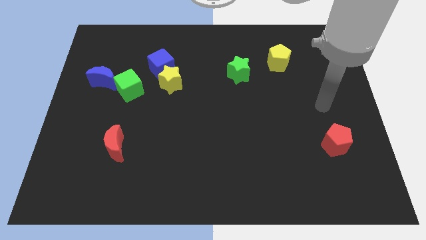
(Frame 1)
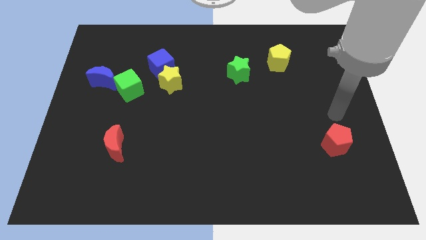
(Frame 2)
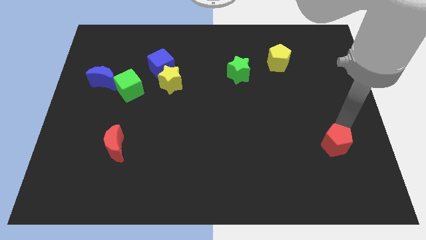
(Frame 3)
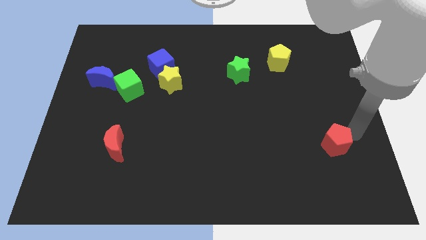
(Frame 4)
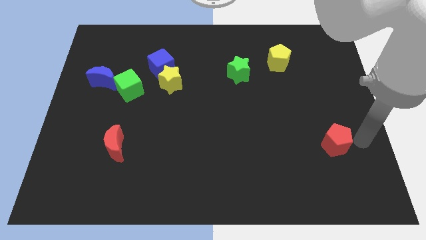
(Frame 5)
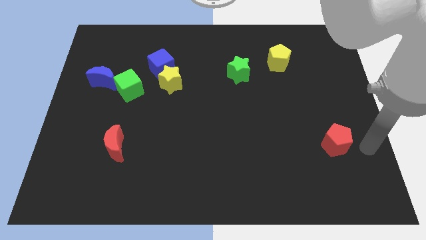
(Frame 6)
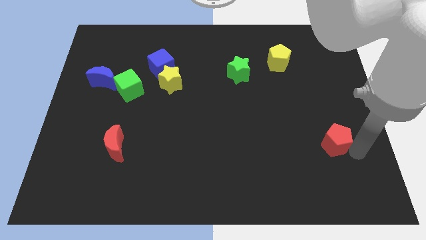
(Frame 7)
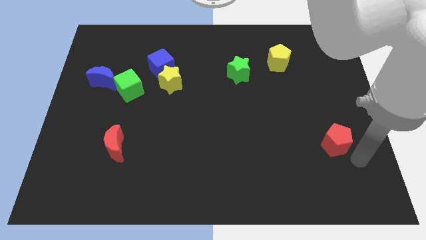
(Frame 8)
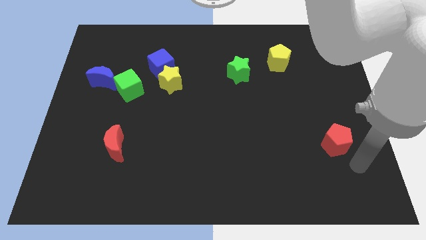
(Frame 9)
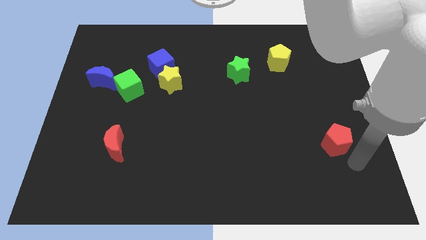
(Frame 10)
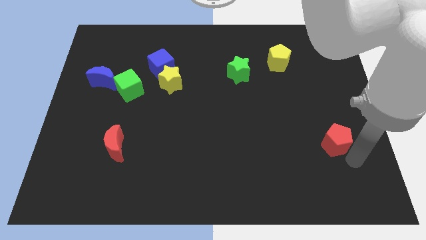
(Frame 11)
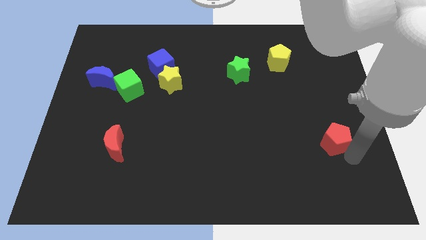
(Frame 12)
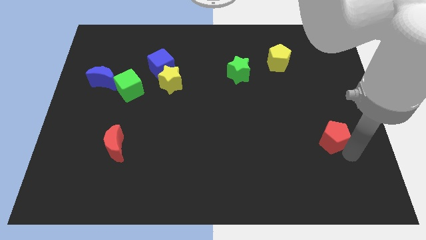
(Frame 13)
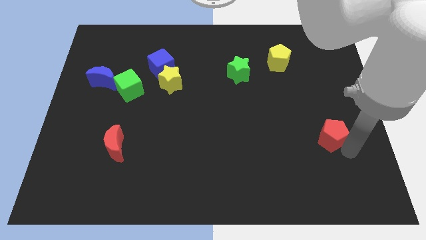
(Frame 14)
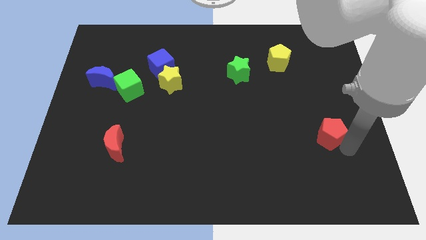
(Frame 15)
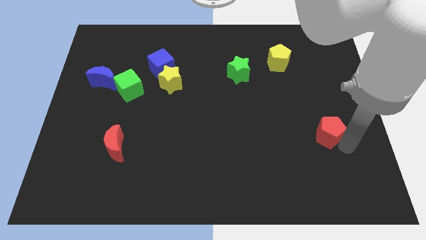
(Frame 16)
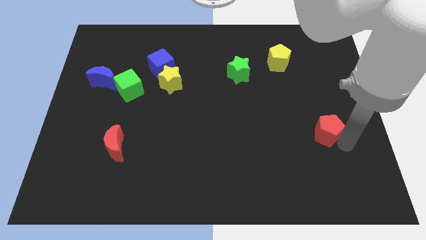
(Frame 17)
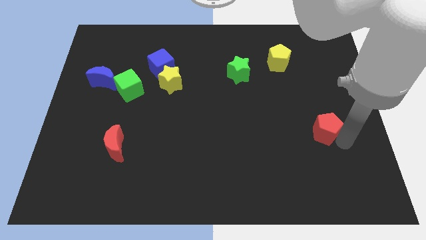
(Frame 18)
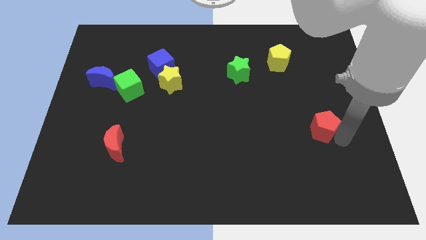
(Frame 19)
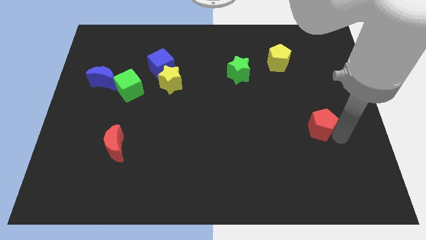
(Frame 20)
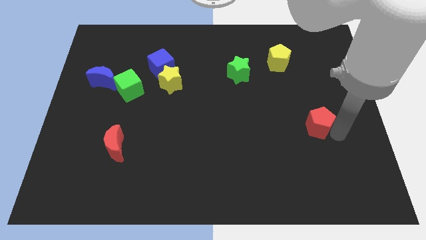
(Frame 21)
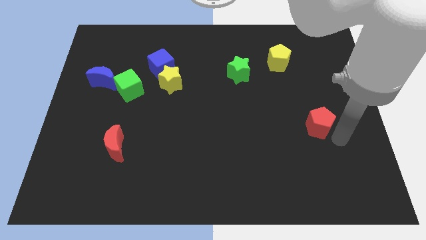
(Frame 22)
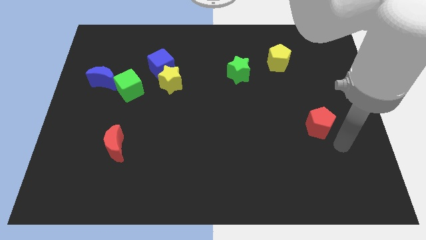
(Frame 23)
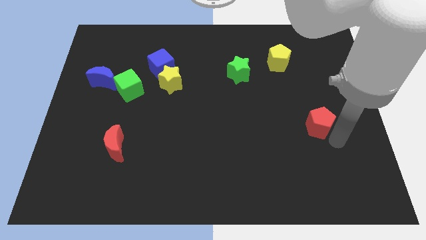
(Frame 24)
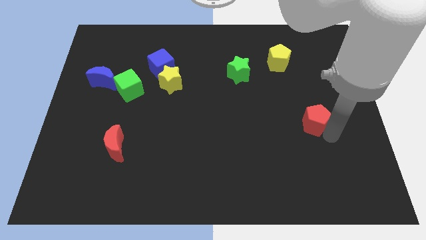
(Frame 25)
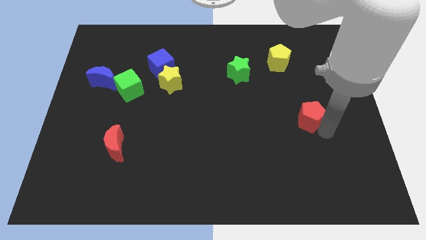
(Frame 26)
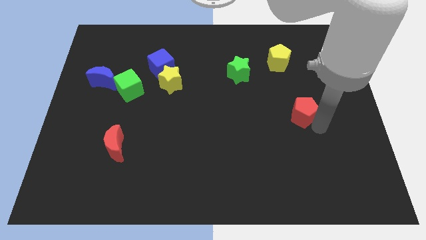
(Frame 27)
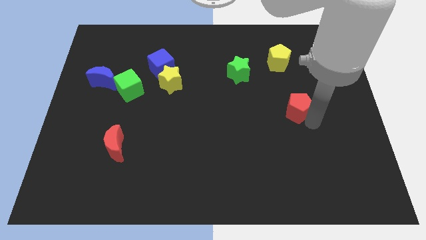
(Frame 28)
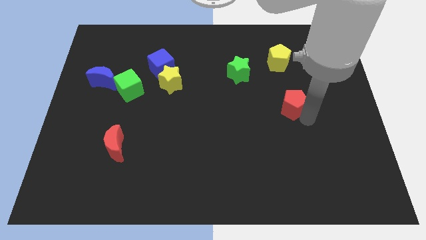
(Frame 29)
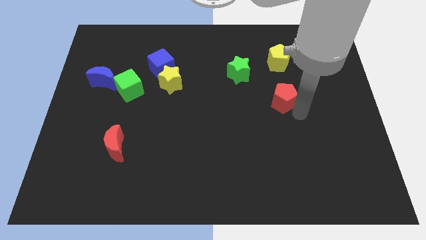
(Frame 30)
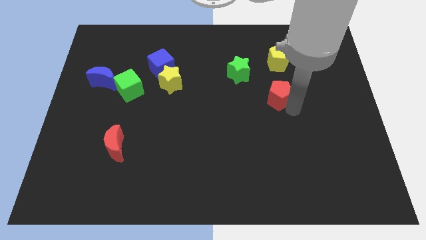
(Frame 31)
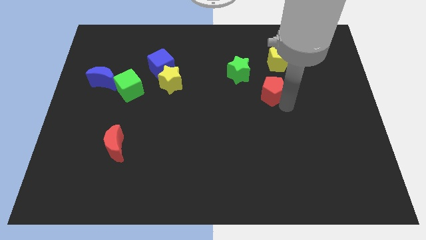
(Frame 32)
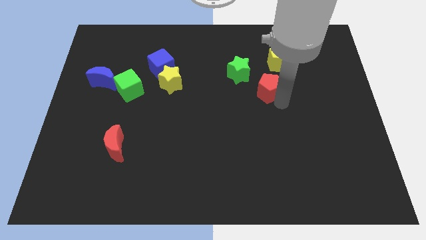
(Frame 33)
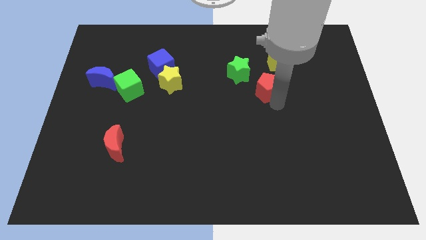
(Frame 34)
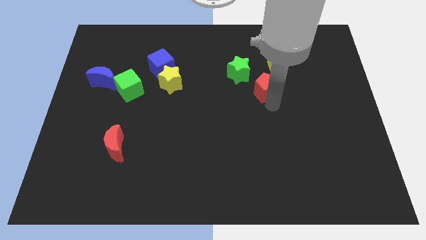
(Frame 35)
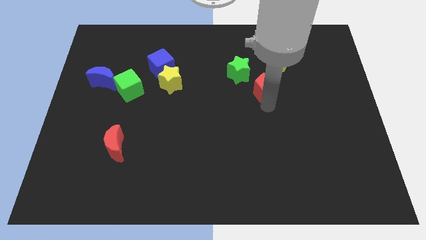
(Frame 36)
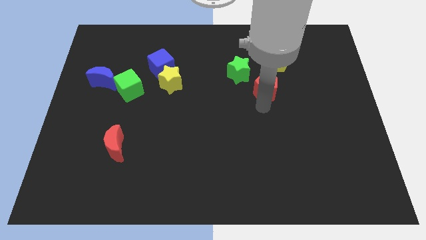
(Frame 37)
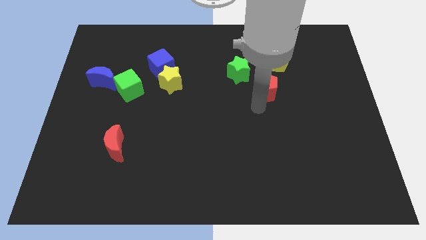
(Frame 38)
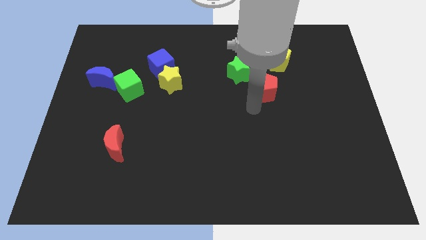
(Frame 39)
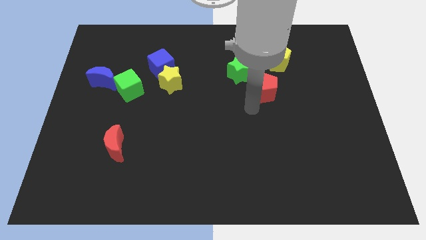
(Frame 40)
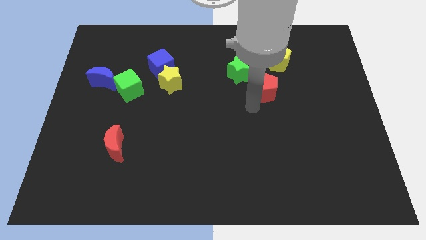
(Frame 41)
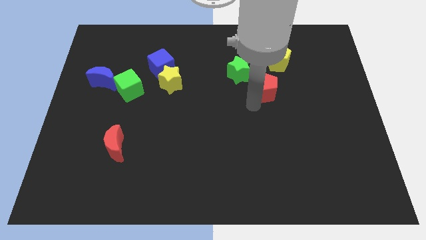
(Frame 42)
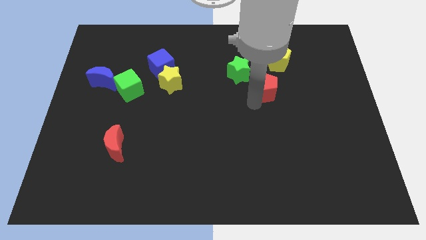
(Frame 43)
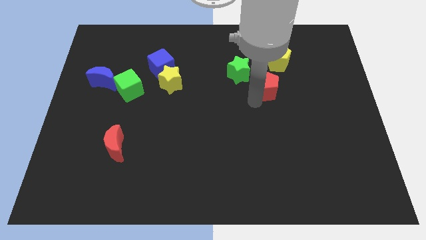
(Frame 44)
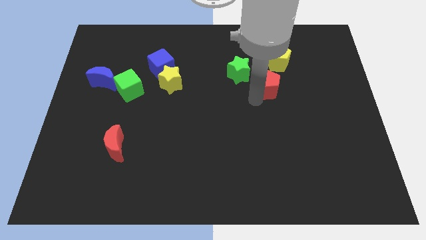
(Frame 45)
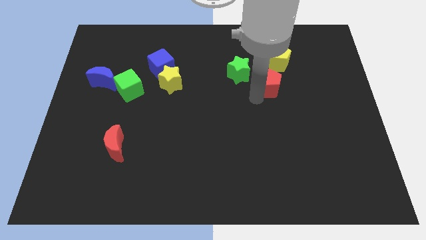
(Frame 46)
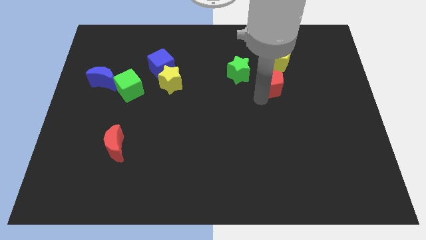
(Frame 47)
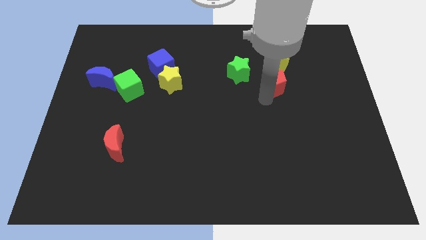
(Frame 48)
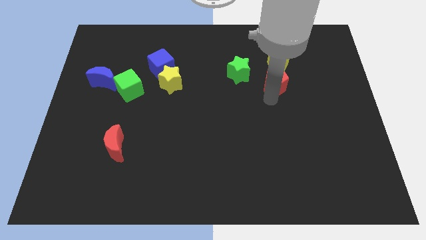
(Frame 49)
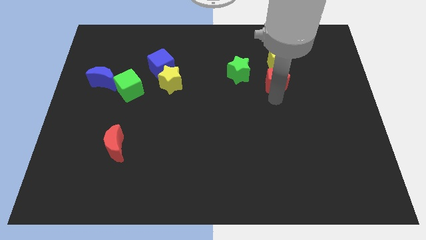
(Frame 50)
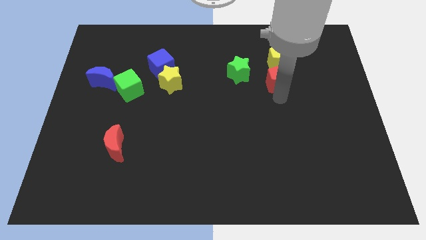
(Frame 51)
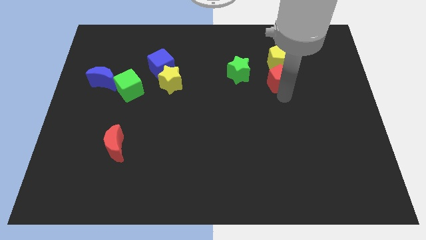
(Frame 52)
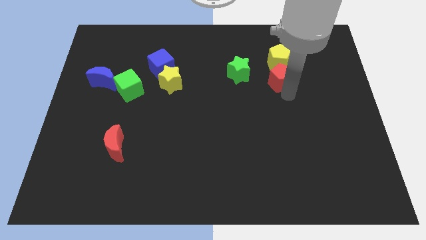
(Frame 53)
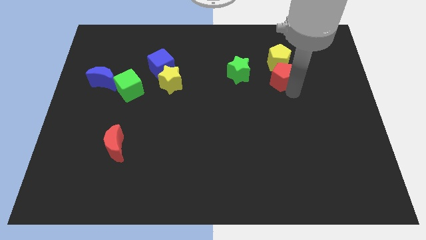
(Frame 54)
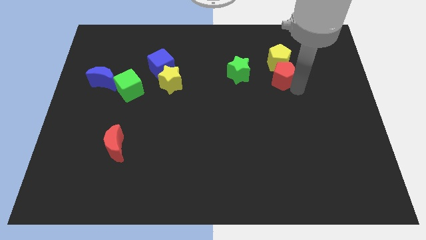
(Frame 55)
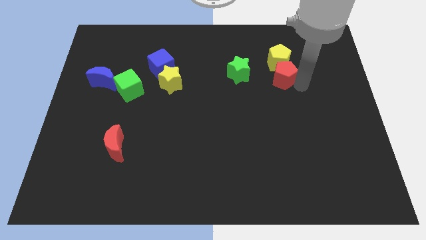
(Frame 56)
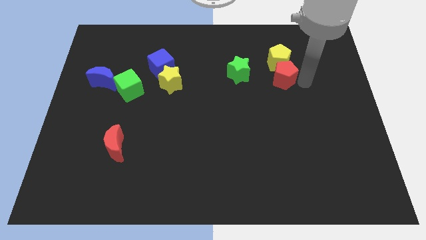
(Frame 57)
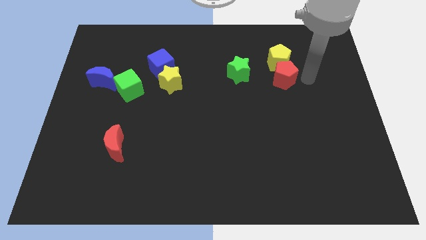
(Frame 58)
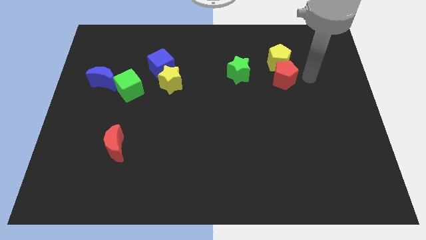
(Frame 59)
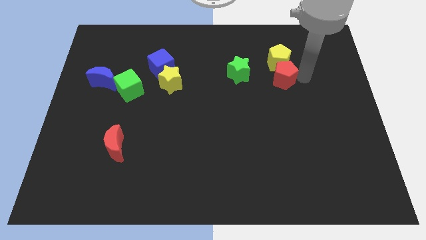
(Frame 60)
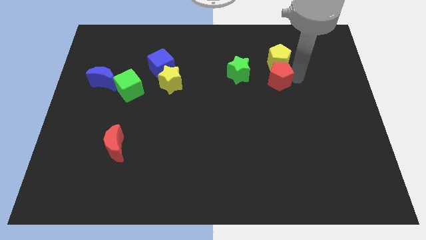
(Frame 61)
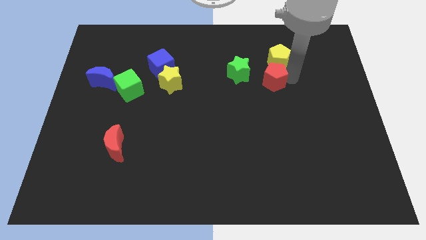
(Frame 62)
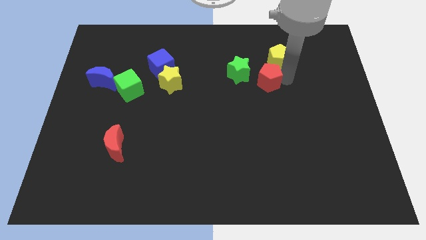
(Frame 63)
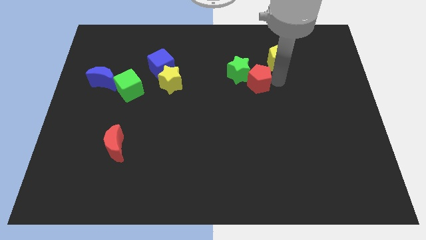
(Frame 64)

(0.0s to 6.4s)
slide the red pentagon next to the green star

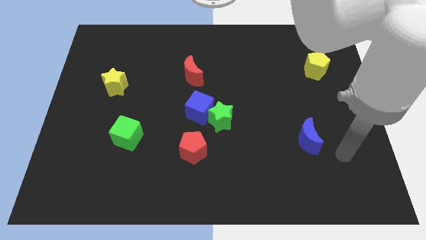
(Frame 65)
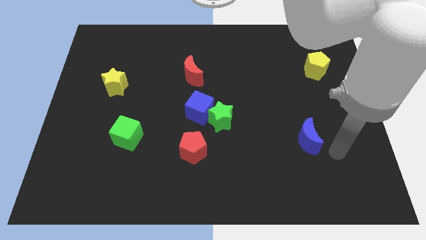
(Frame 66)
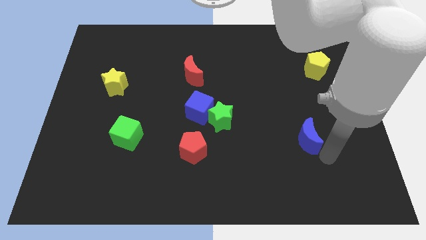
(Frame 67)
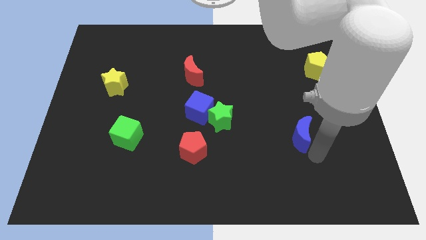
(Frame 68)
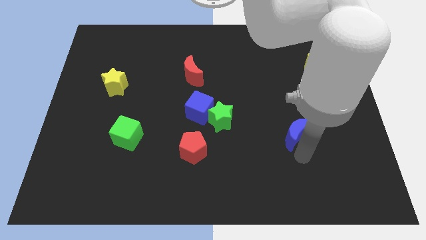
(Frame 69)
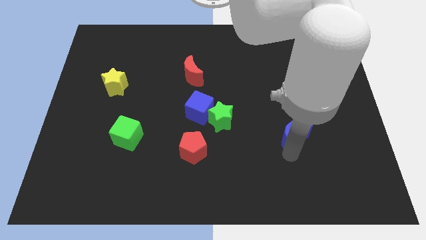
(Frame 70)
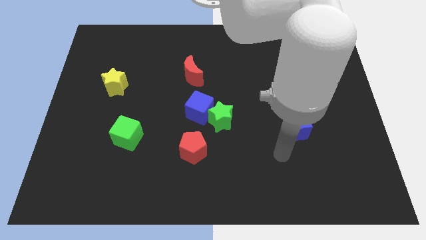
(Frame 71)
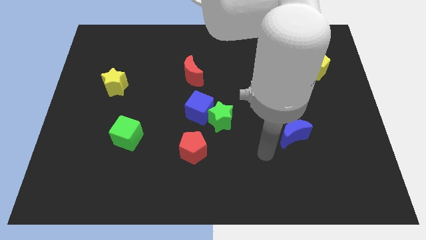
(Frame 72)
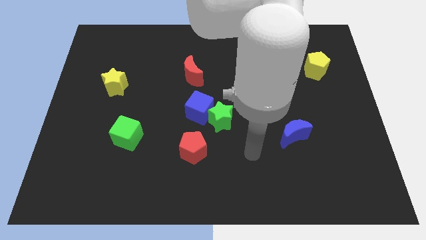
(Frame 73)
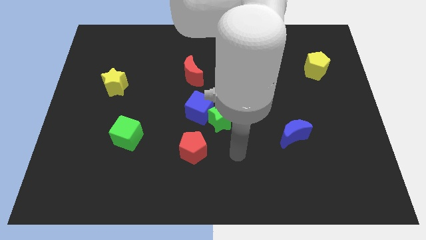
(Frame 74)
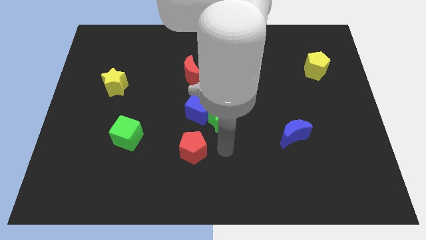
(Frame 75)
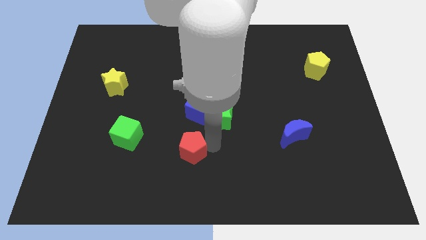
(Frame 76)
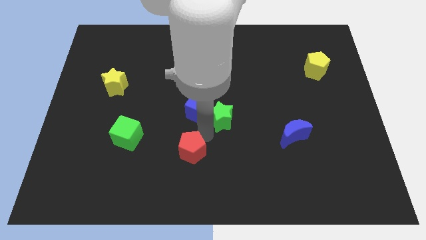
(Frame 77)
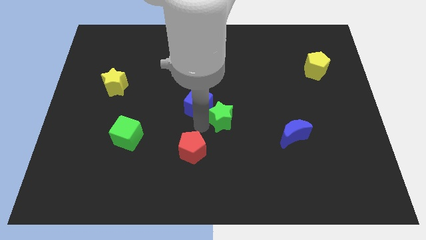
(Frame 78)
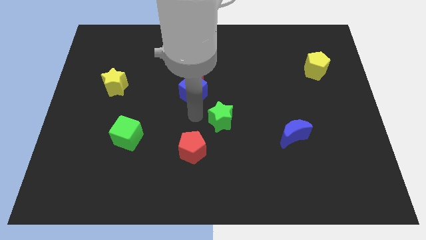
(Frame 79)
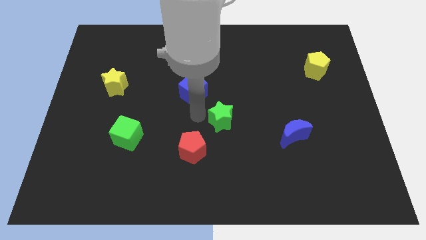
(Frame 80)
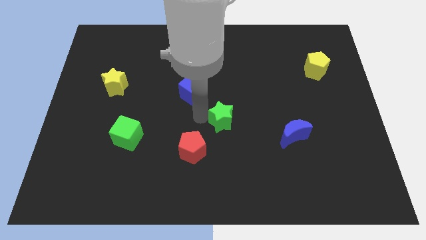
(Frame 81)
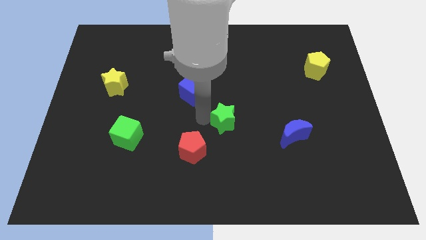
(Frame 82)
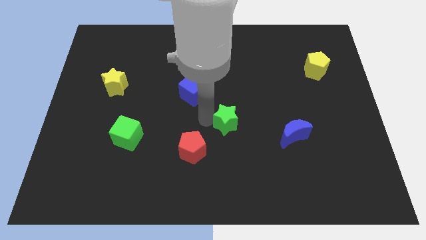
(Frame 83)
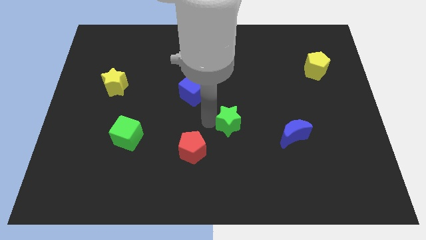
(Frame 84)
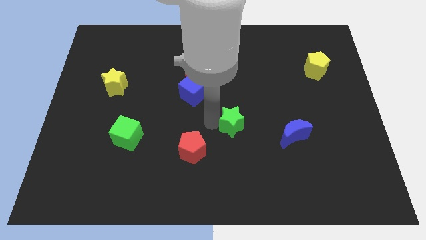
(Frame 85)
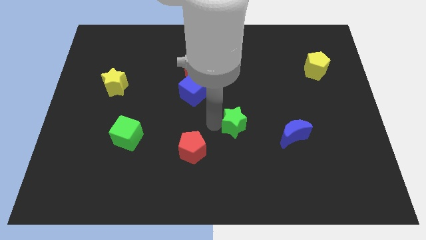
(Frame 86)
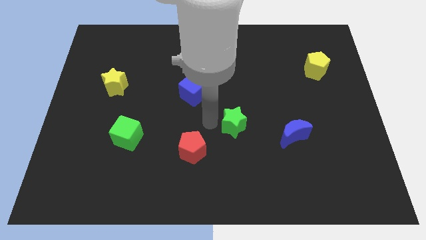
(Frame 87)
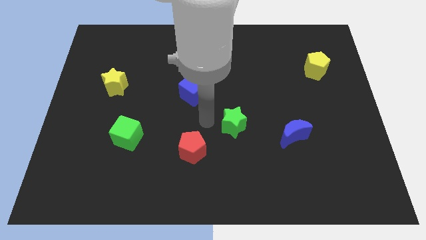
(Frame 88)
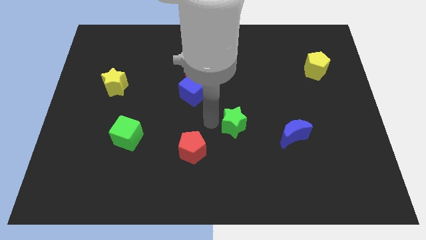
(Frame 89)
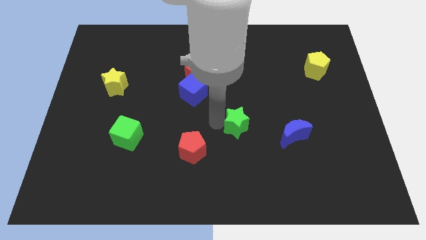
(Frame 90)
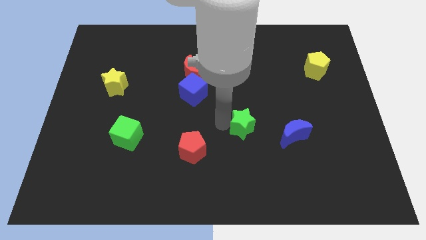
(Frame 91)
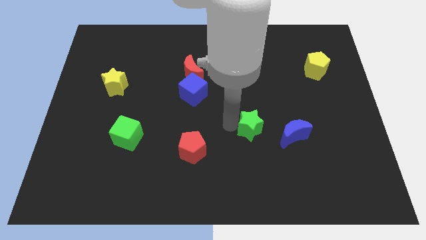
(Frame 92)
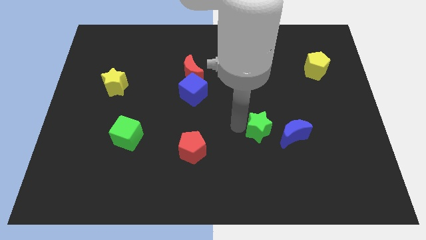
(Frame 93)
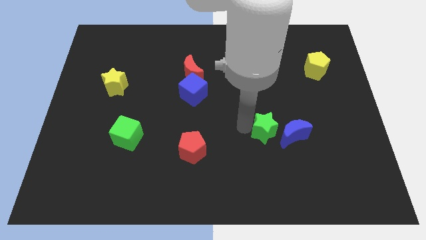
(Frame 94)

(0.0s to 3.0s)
slide the green star to the blue moon
